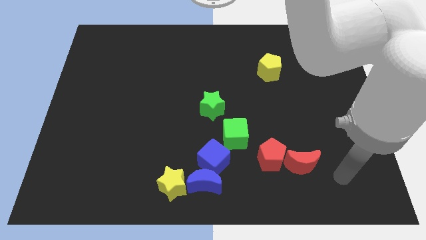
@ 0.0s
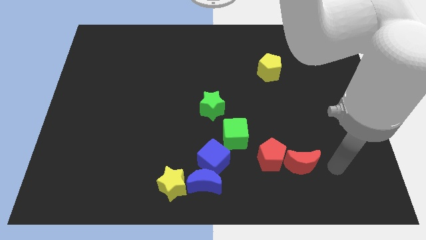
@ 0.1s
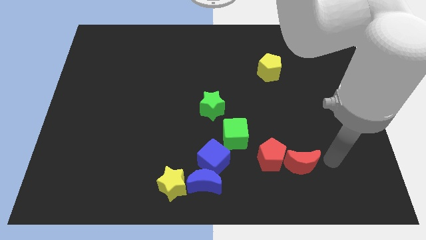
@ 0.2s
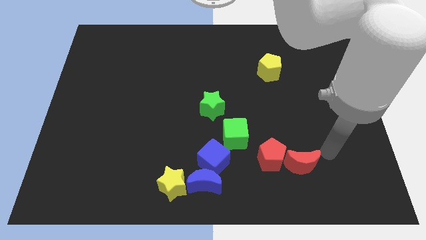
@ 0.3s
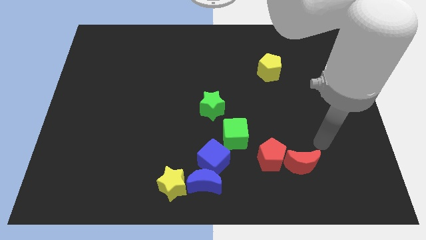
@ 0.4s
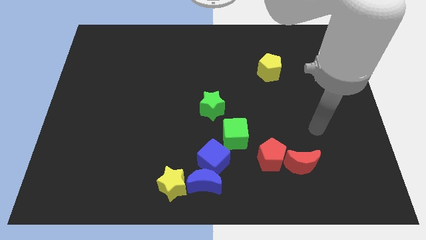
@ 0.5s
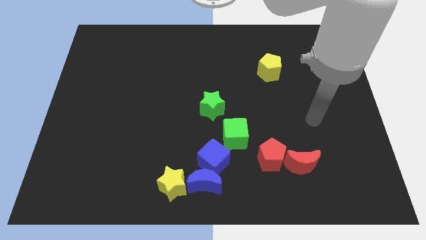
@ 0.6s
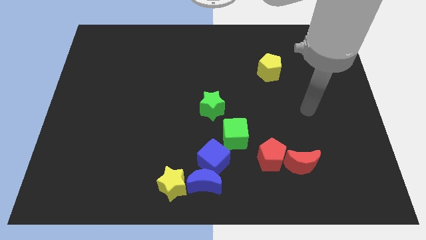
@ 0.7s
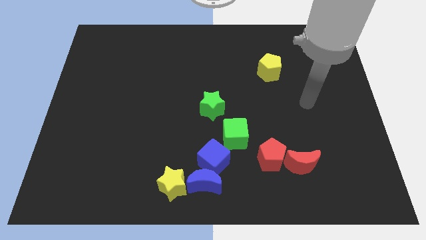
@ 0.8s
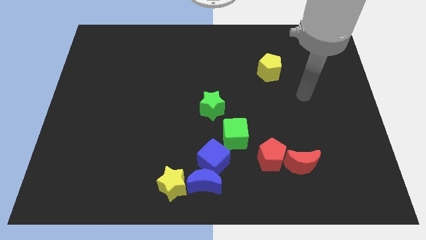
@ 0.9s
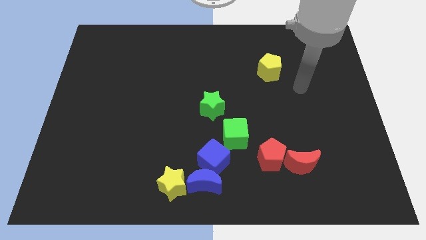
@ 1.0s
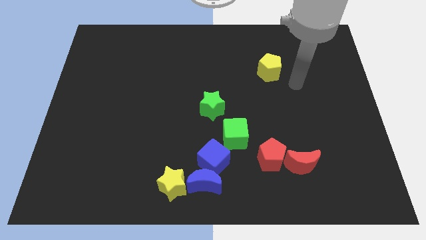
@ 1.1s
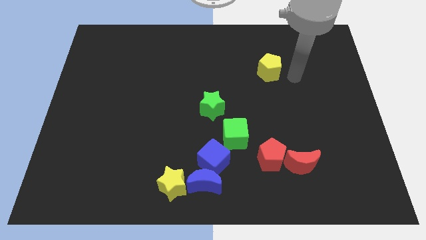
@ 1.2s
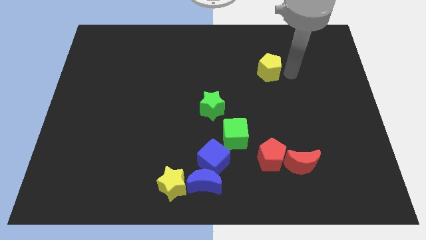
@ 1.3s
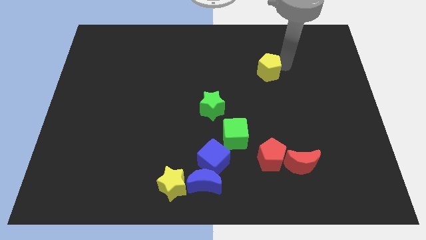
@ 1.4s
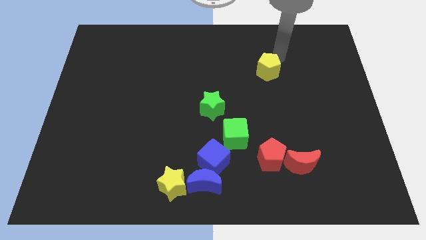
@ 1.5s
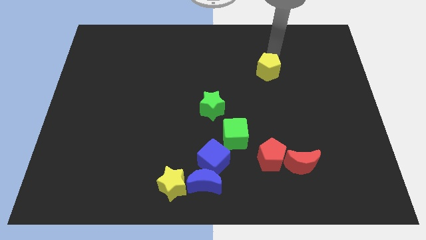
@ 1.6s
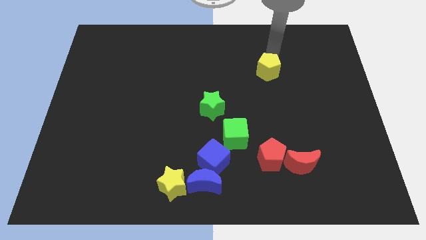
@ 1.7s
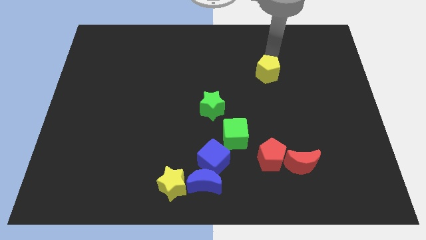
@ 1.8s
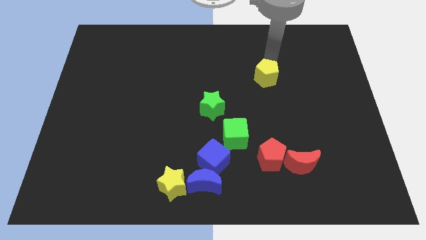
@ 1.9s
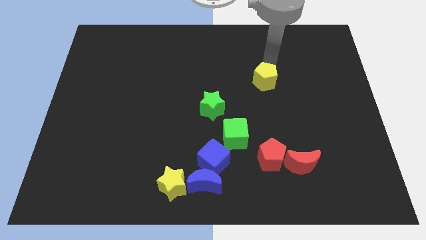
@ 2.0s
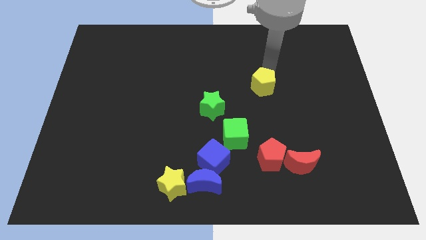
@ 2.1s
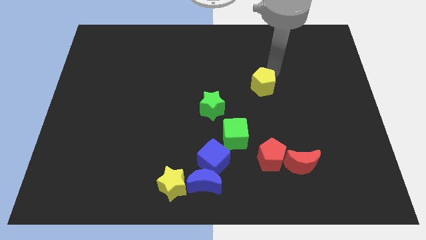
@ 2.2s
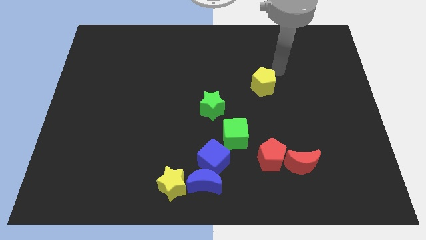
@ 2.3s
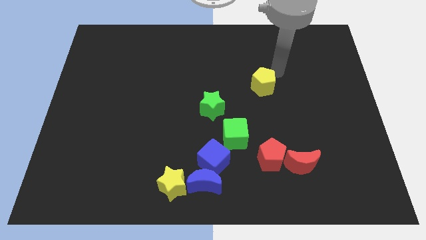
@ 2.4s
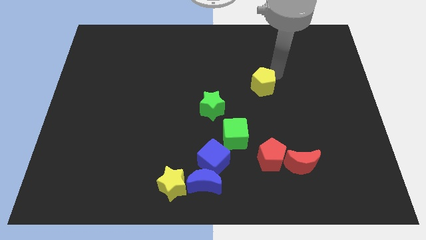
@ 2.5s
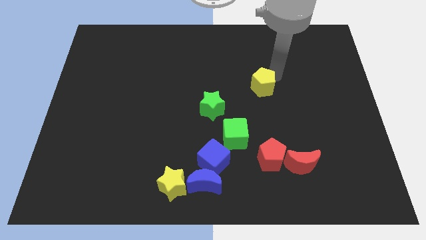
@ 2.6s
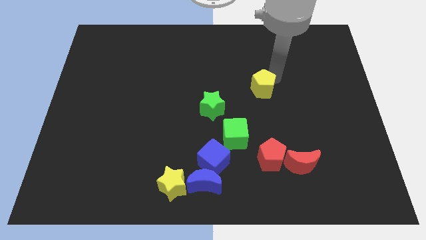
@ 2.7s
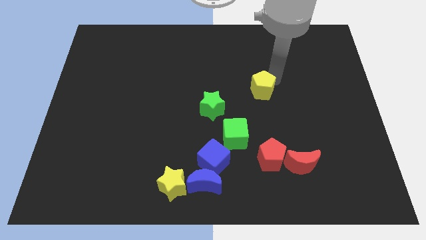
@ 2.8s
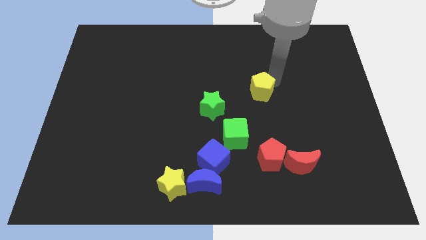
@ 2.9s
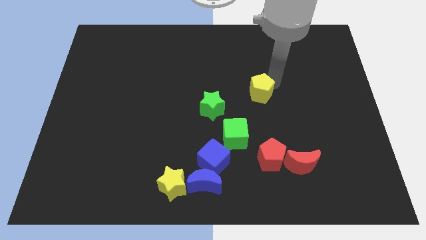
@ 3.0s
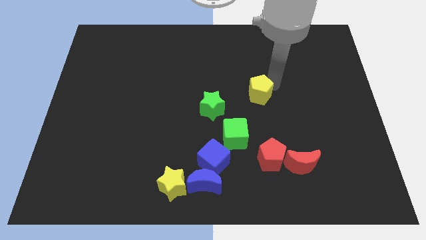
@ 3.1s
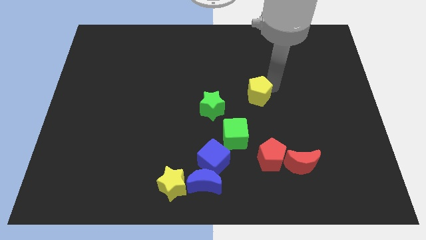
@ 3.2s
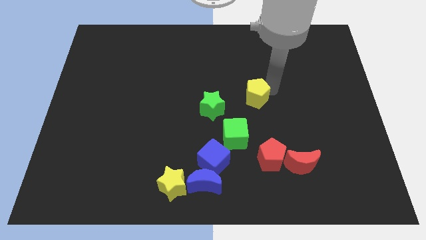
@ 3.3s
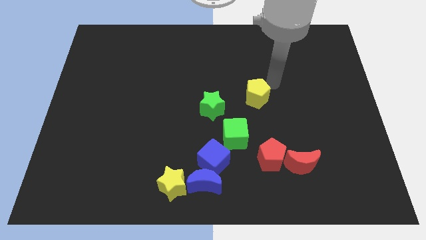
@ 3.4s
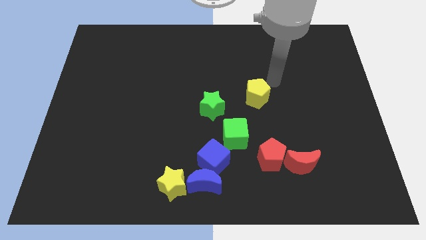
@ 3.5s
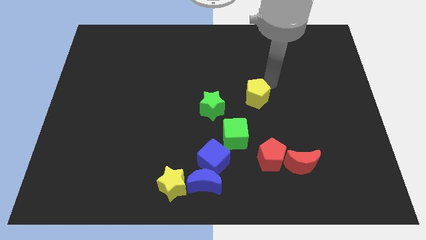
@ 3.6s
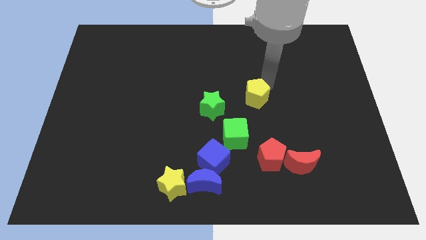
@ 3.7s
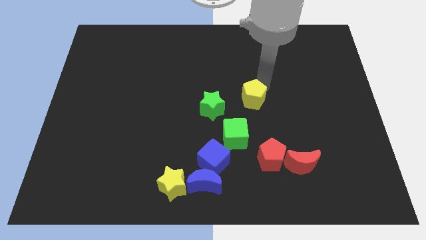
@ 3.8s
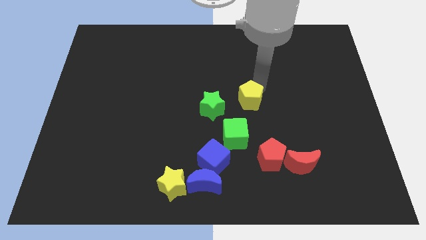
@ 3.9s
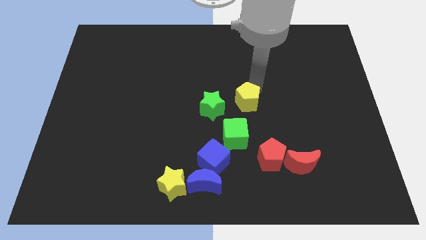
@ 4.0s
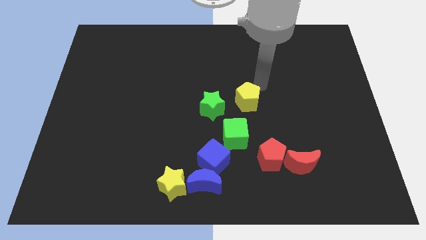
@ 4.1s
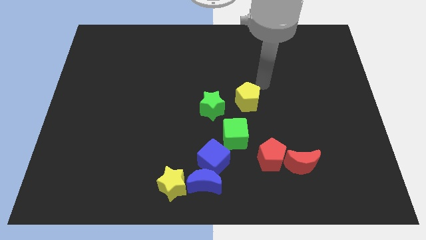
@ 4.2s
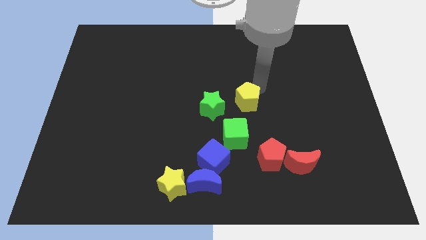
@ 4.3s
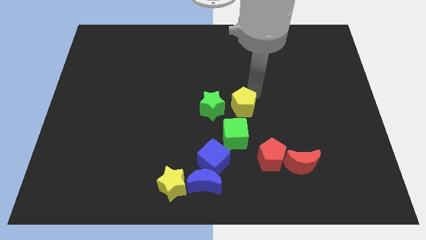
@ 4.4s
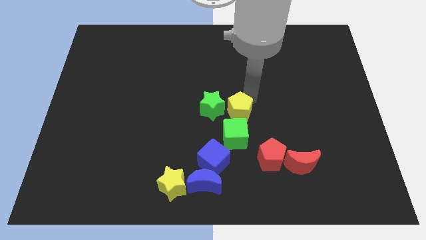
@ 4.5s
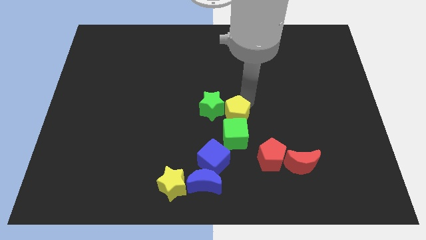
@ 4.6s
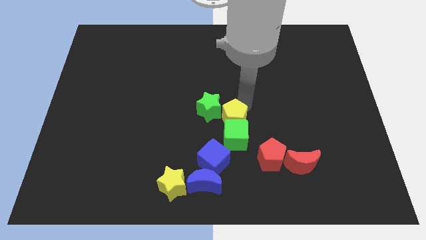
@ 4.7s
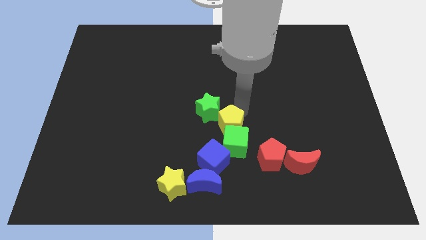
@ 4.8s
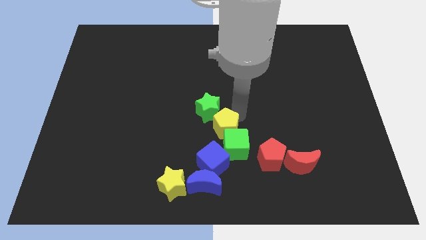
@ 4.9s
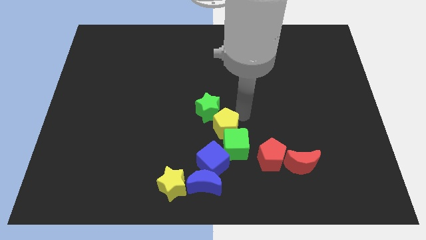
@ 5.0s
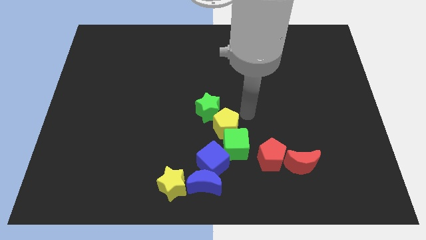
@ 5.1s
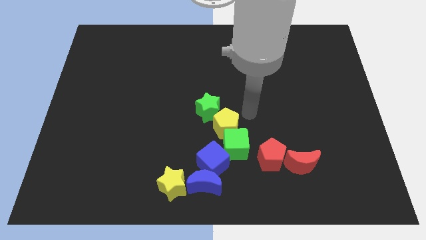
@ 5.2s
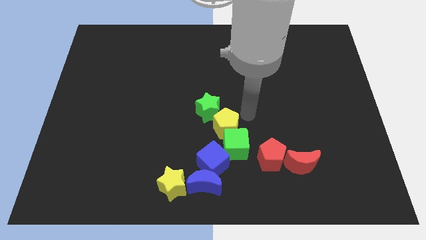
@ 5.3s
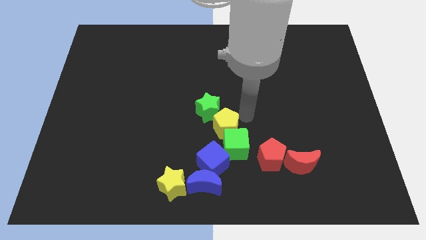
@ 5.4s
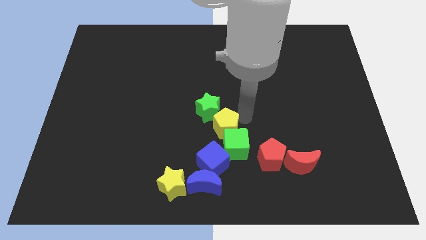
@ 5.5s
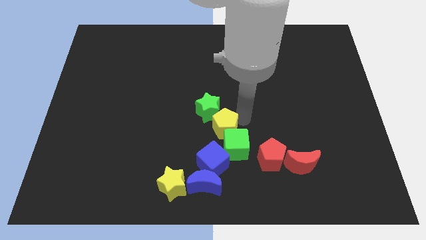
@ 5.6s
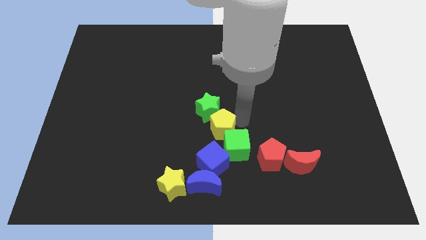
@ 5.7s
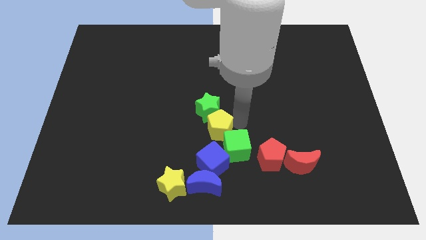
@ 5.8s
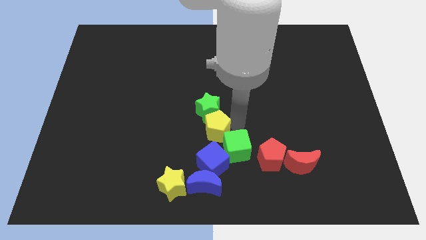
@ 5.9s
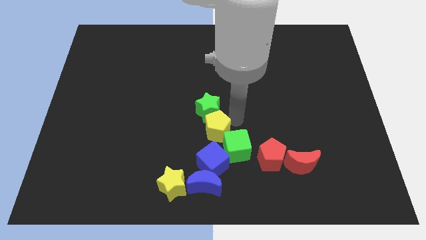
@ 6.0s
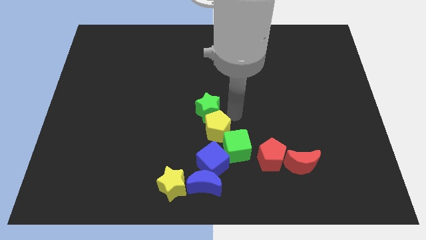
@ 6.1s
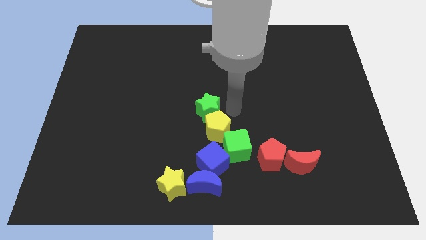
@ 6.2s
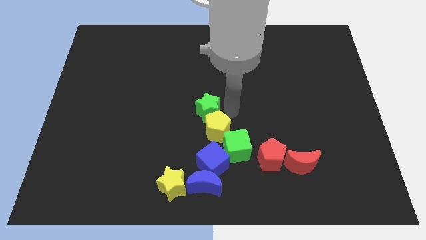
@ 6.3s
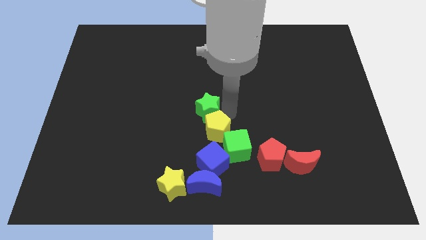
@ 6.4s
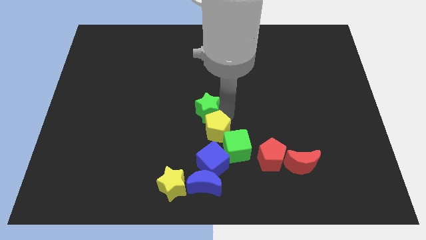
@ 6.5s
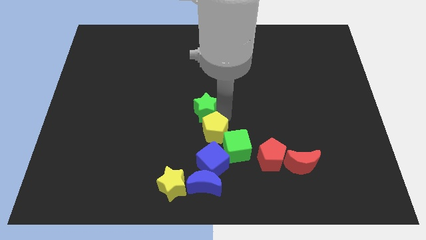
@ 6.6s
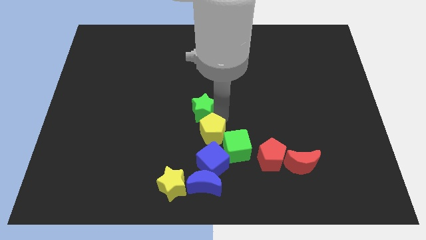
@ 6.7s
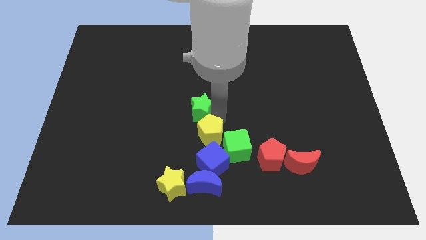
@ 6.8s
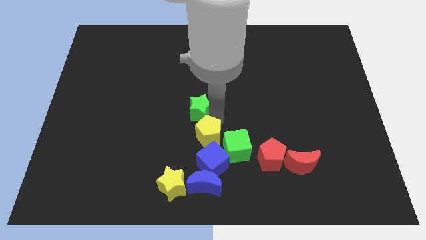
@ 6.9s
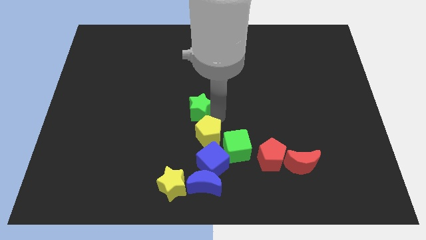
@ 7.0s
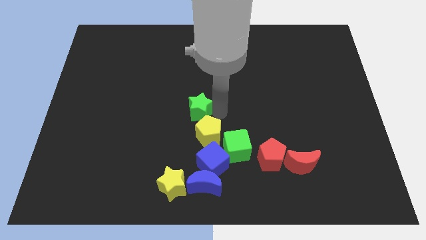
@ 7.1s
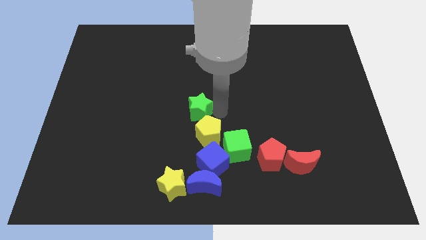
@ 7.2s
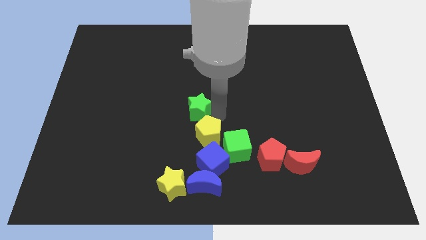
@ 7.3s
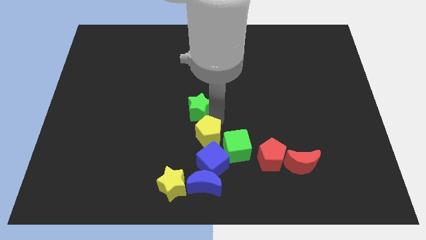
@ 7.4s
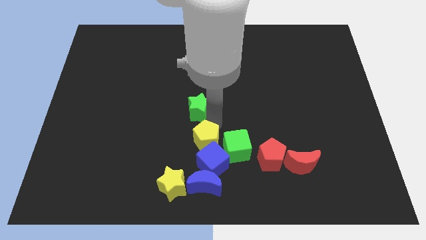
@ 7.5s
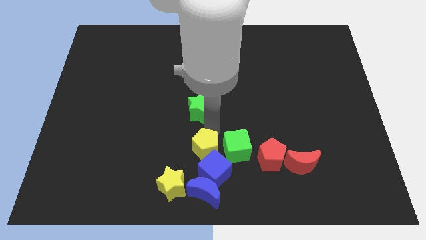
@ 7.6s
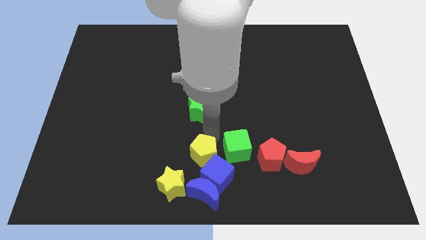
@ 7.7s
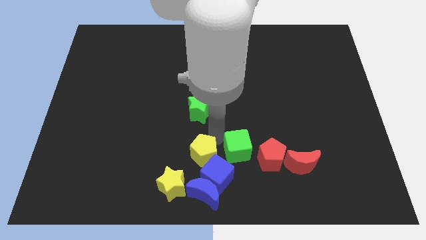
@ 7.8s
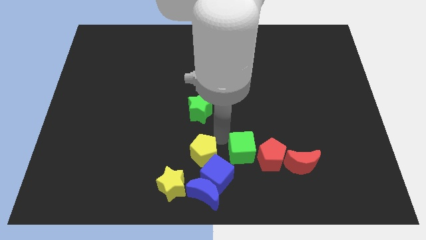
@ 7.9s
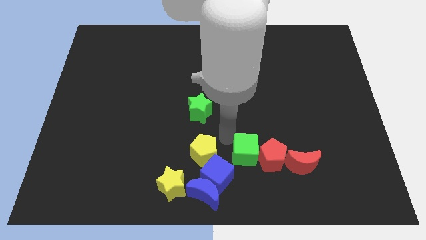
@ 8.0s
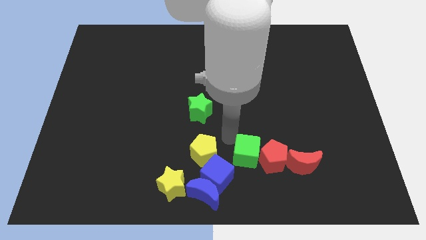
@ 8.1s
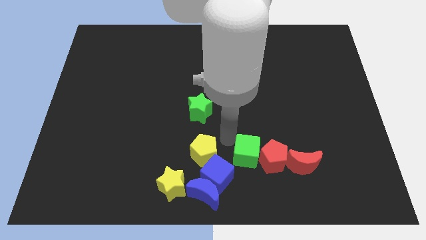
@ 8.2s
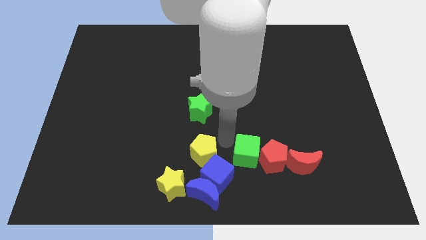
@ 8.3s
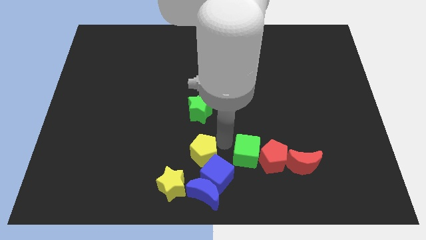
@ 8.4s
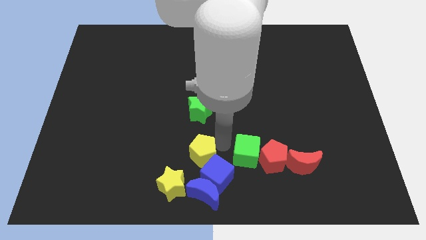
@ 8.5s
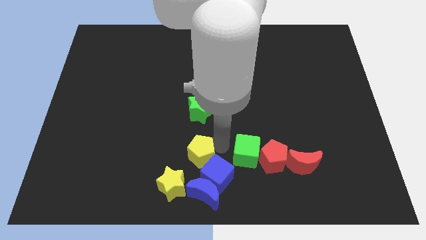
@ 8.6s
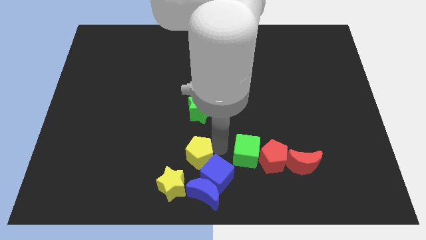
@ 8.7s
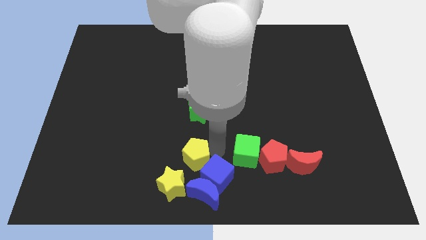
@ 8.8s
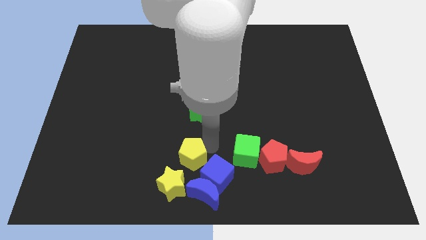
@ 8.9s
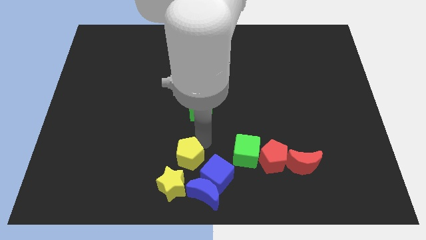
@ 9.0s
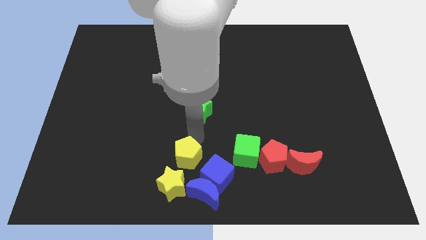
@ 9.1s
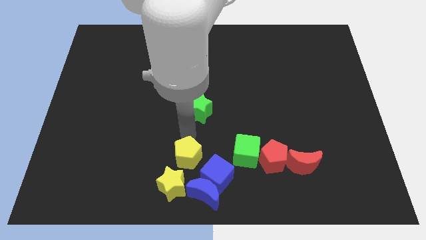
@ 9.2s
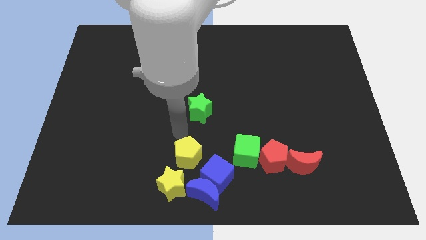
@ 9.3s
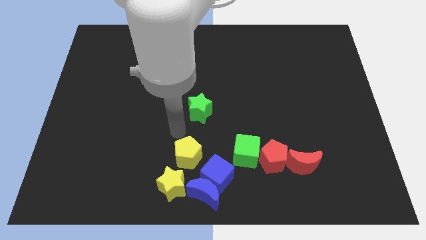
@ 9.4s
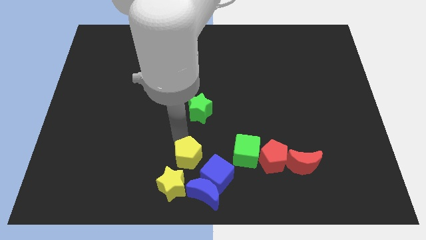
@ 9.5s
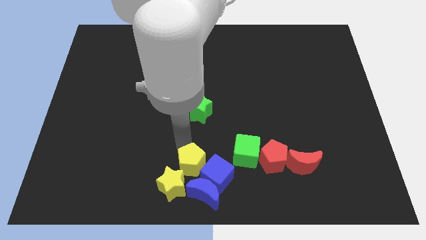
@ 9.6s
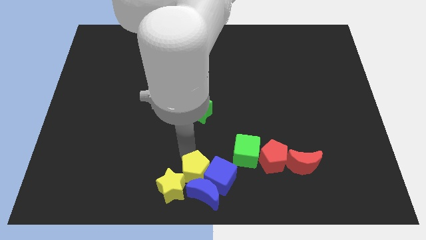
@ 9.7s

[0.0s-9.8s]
push the yellow pentagon close to the blue moon
